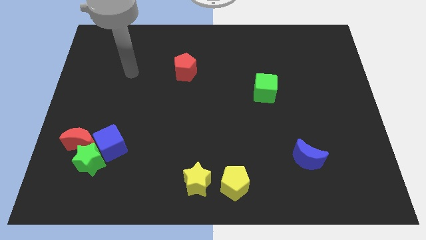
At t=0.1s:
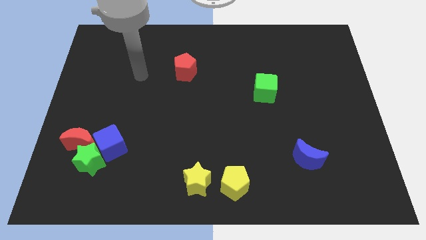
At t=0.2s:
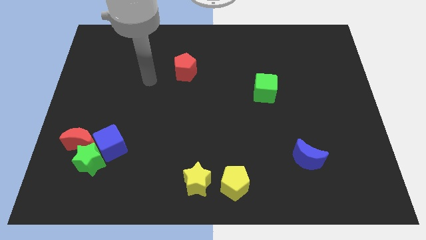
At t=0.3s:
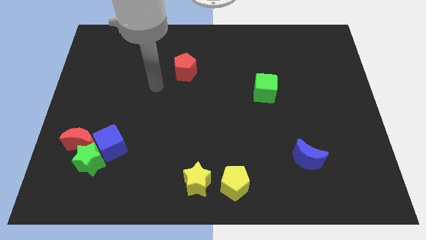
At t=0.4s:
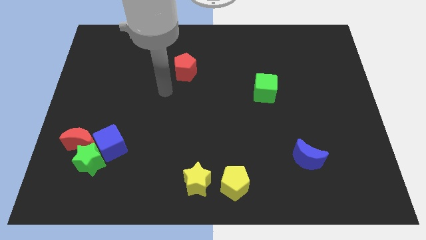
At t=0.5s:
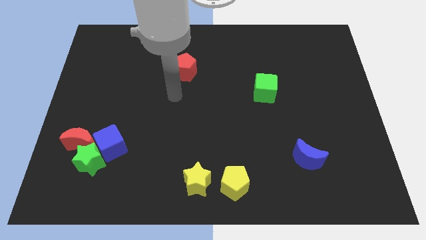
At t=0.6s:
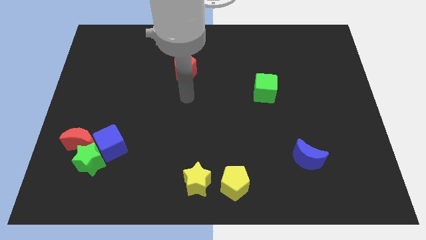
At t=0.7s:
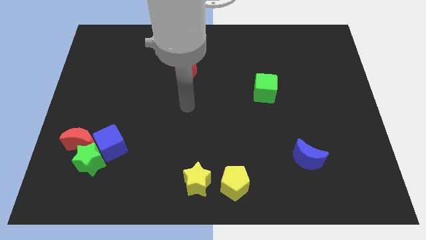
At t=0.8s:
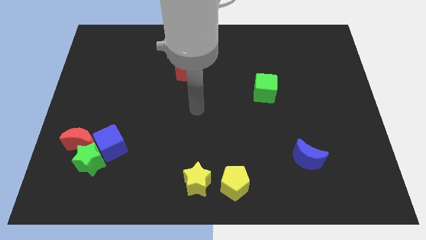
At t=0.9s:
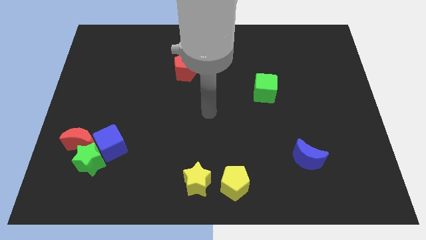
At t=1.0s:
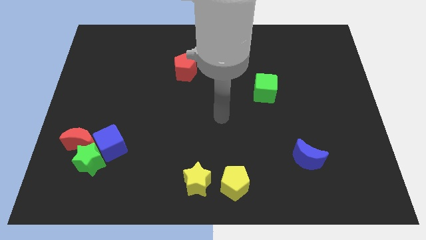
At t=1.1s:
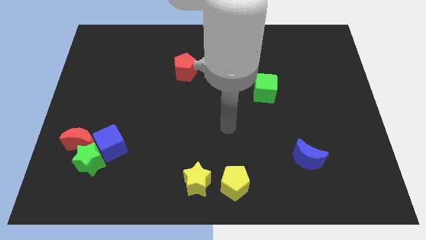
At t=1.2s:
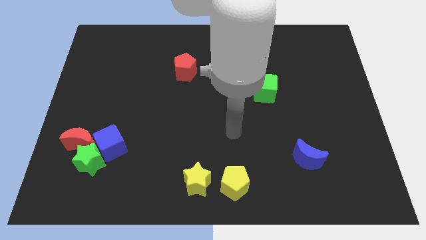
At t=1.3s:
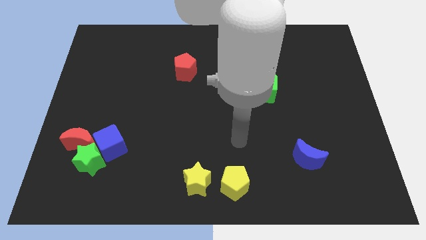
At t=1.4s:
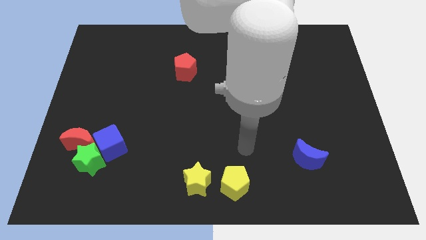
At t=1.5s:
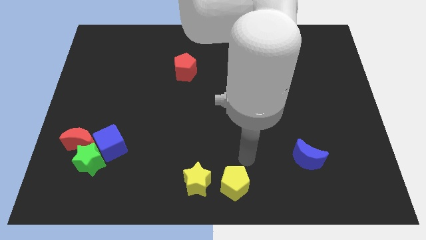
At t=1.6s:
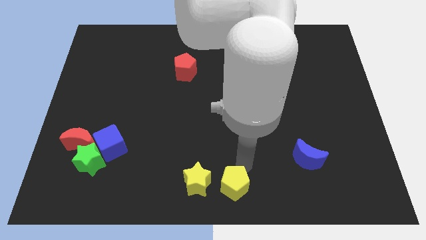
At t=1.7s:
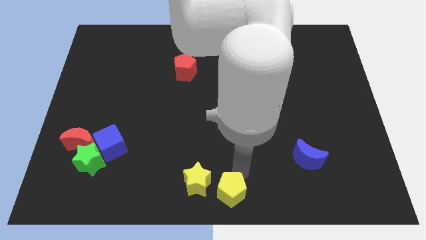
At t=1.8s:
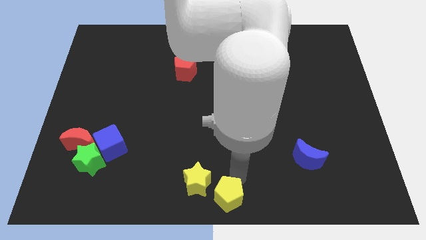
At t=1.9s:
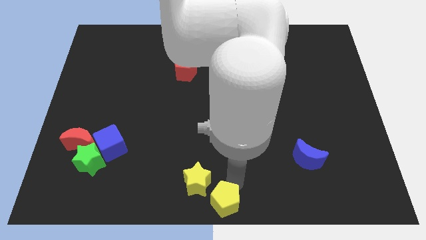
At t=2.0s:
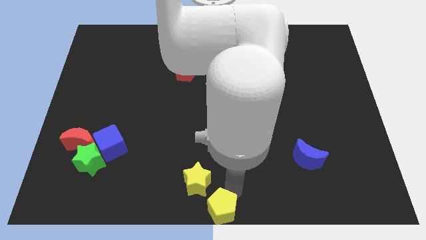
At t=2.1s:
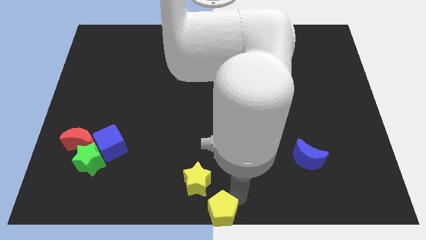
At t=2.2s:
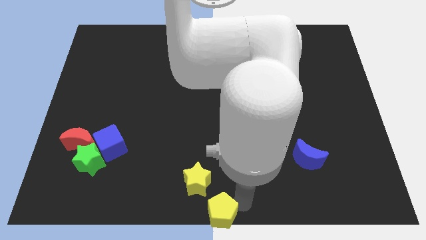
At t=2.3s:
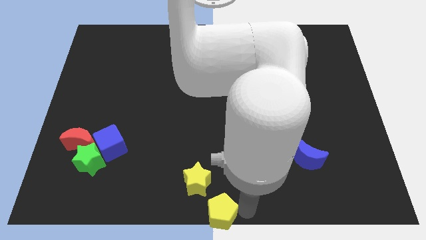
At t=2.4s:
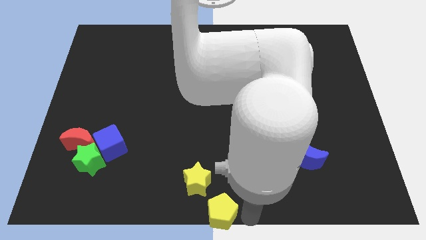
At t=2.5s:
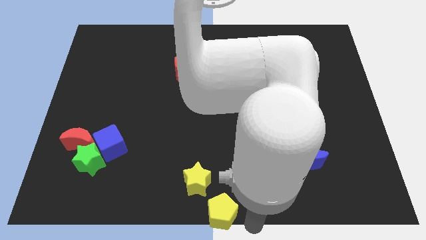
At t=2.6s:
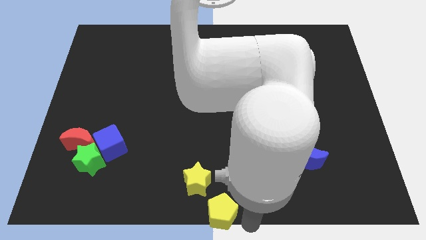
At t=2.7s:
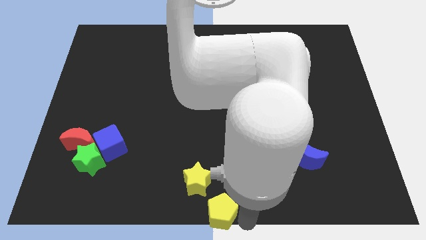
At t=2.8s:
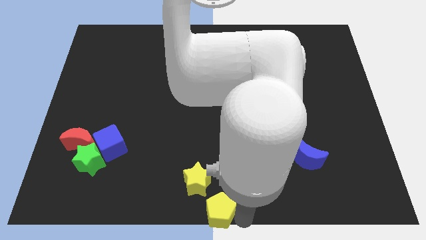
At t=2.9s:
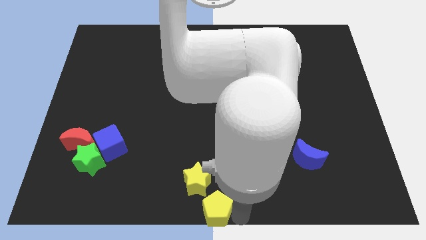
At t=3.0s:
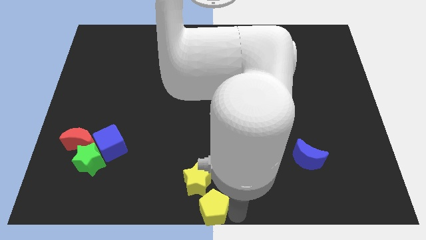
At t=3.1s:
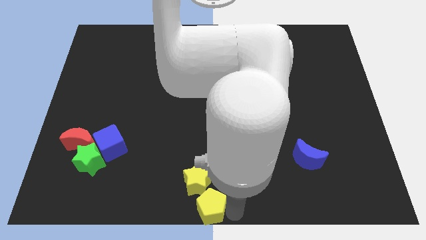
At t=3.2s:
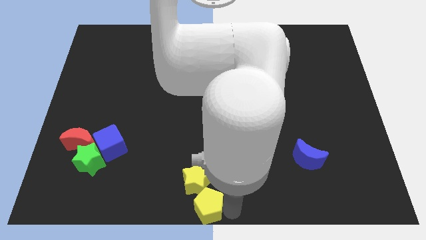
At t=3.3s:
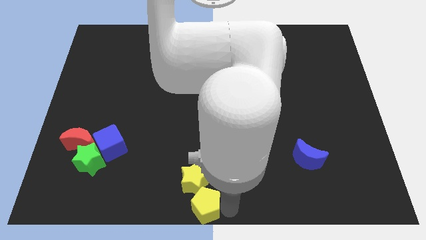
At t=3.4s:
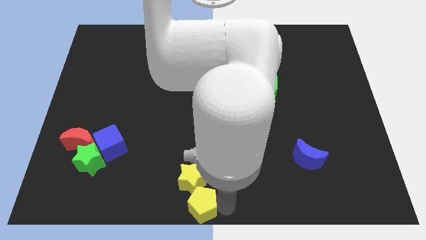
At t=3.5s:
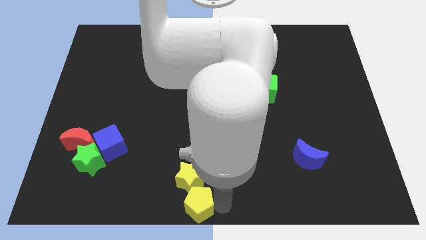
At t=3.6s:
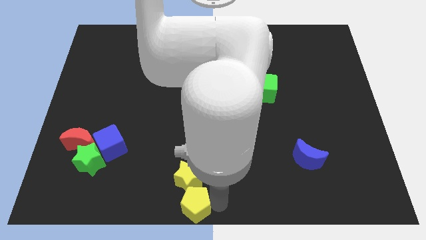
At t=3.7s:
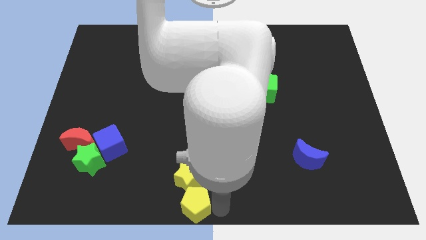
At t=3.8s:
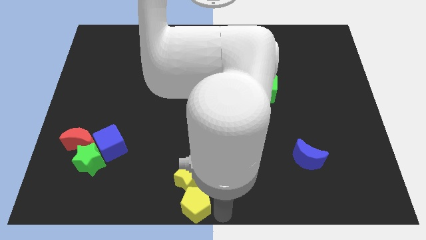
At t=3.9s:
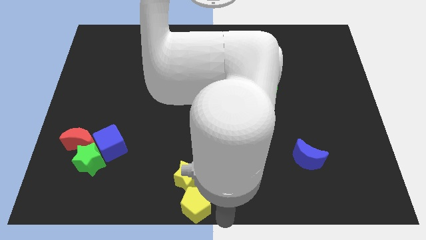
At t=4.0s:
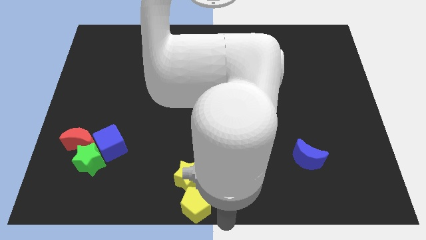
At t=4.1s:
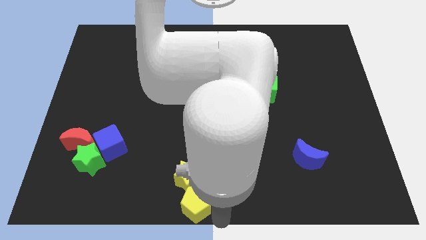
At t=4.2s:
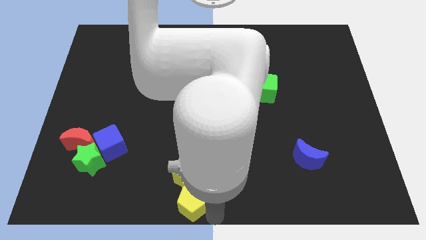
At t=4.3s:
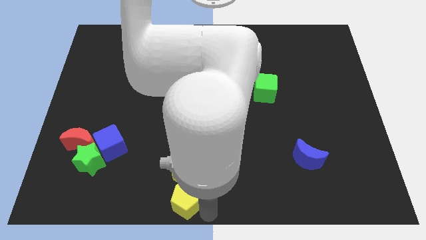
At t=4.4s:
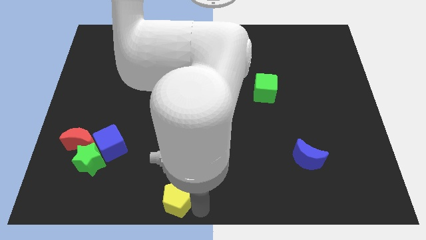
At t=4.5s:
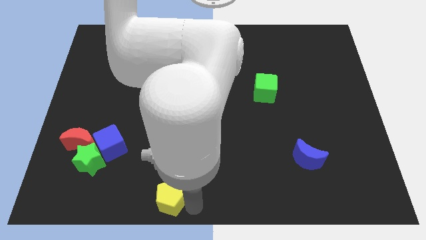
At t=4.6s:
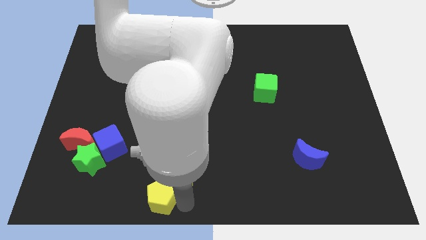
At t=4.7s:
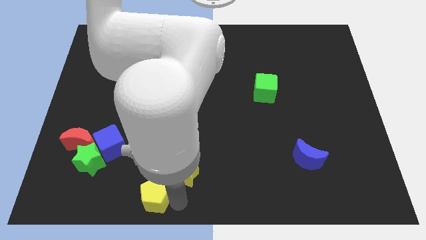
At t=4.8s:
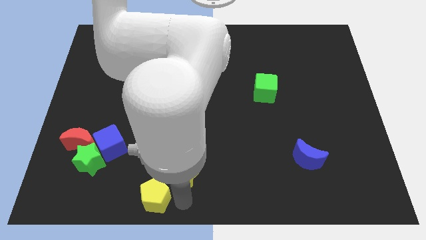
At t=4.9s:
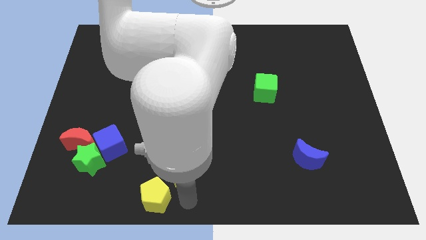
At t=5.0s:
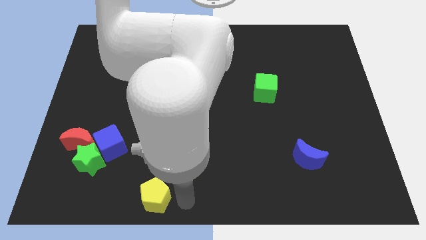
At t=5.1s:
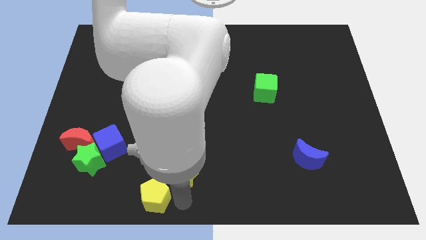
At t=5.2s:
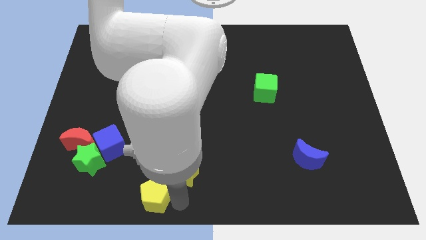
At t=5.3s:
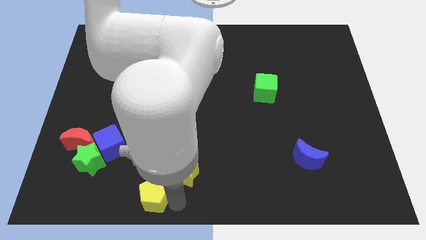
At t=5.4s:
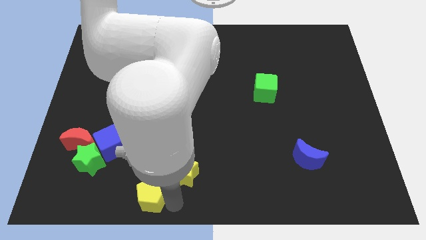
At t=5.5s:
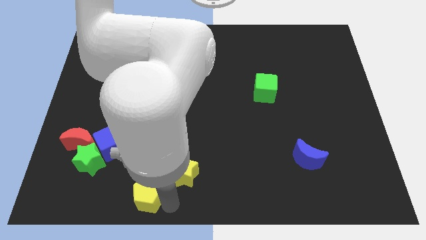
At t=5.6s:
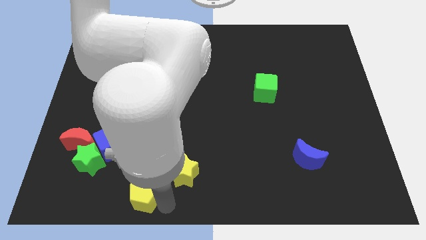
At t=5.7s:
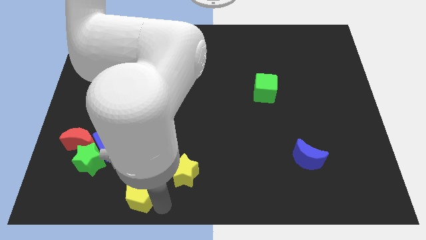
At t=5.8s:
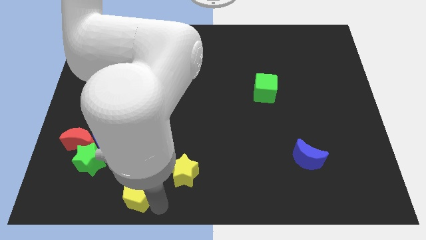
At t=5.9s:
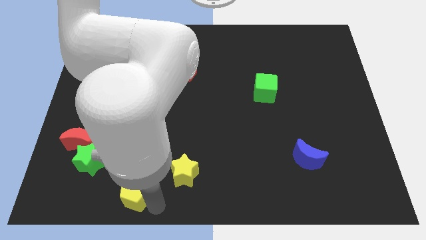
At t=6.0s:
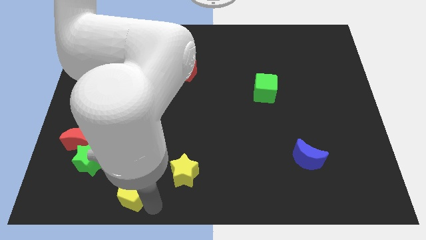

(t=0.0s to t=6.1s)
move the yellow pentagon to the left

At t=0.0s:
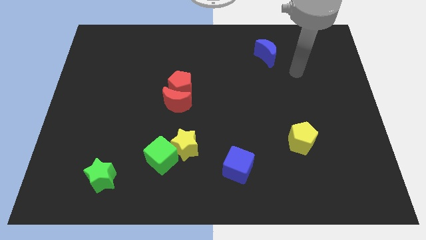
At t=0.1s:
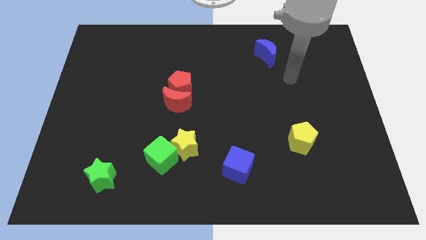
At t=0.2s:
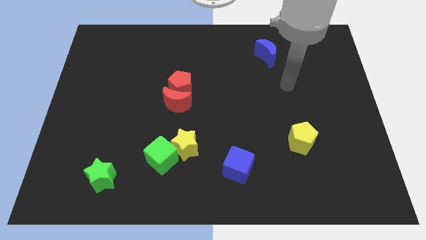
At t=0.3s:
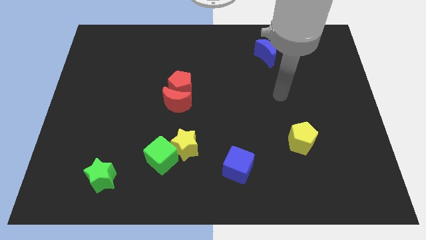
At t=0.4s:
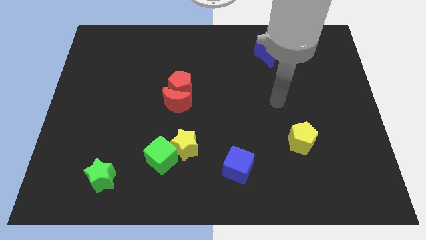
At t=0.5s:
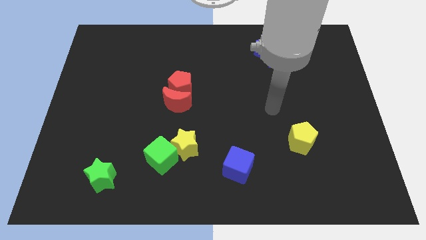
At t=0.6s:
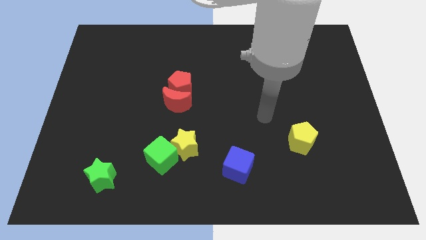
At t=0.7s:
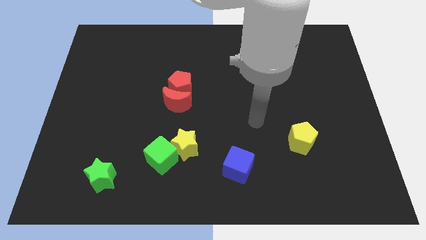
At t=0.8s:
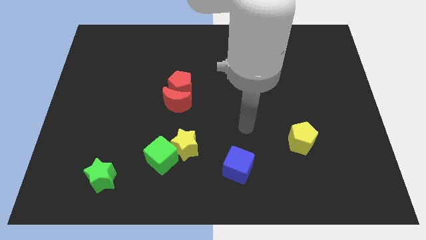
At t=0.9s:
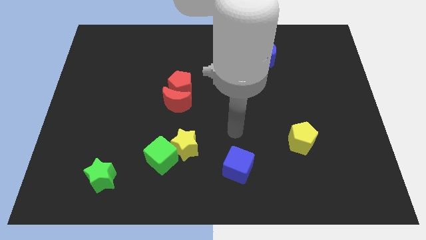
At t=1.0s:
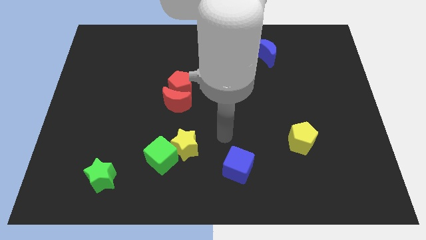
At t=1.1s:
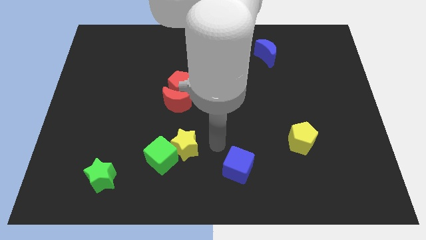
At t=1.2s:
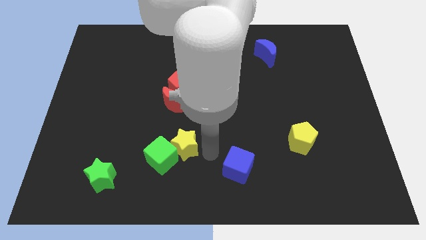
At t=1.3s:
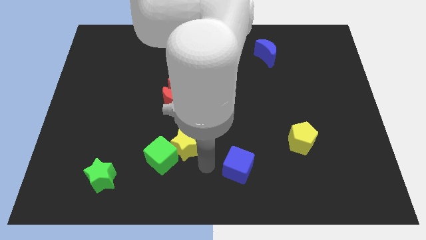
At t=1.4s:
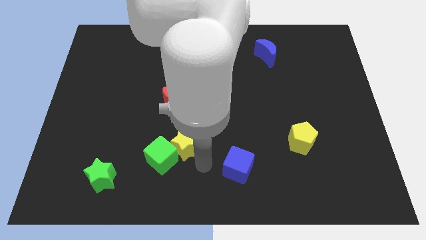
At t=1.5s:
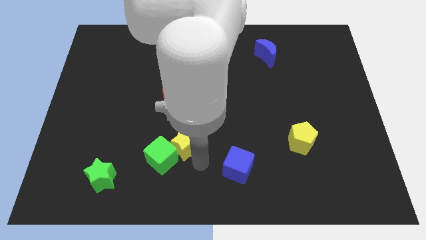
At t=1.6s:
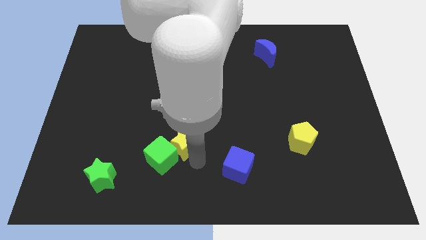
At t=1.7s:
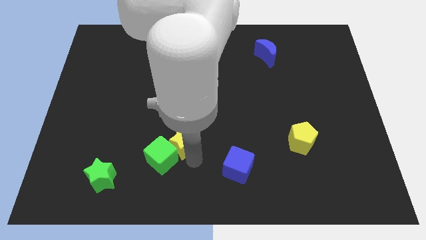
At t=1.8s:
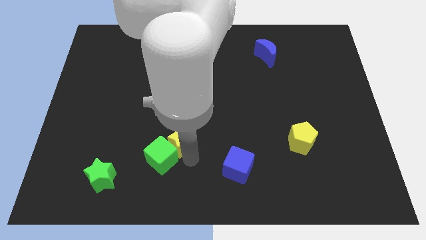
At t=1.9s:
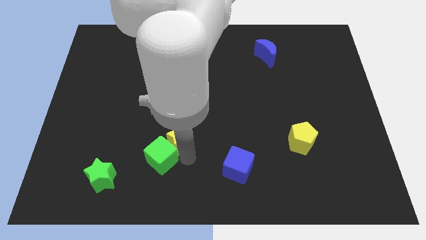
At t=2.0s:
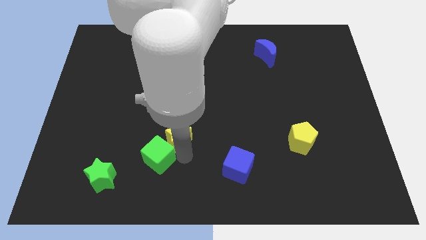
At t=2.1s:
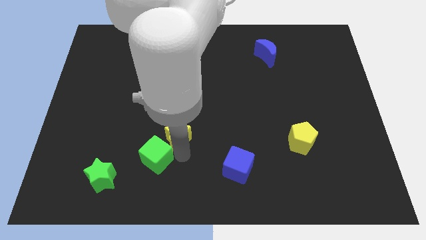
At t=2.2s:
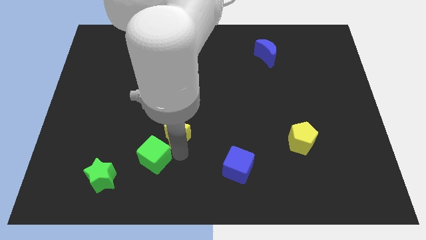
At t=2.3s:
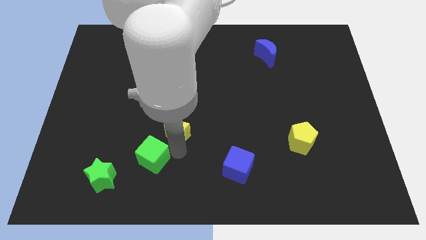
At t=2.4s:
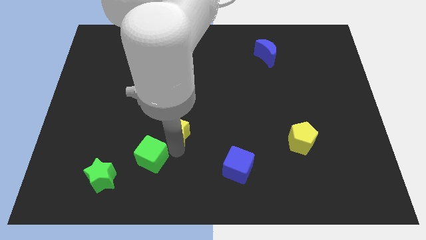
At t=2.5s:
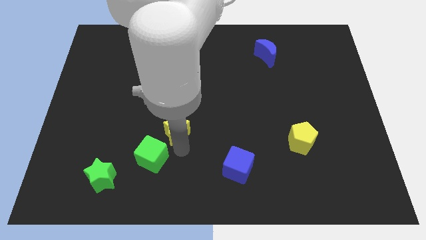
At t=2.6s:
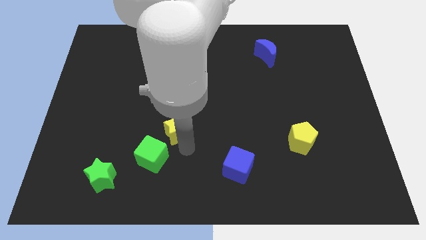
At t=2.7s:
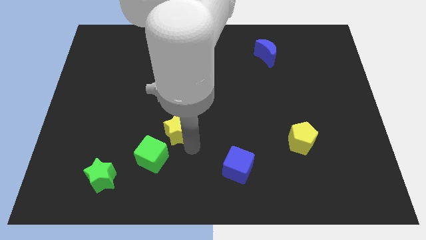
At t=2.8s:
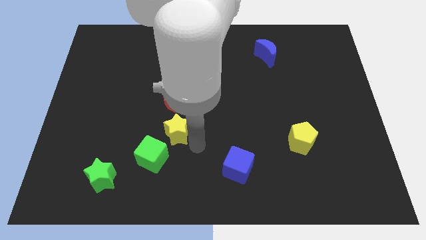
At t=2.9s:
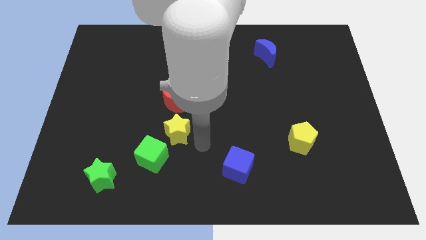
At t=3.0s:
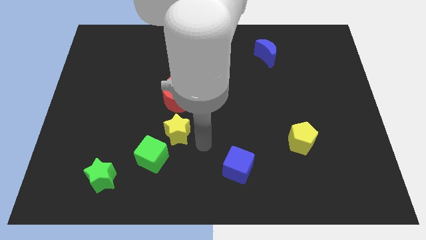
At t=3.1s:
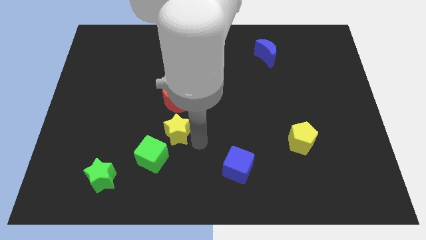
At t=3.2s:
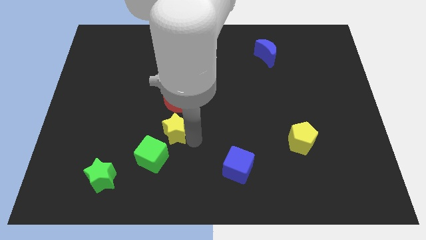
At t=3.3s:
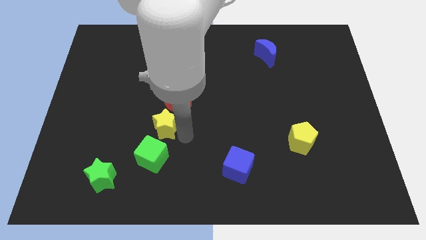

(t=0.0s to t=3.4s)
slightly move the yellow star up and then to the left
